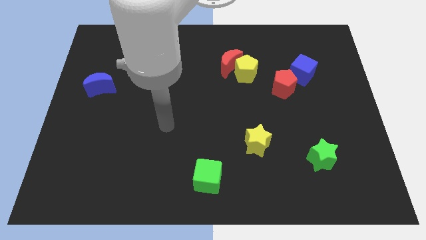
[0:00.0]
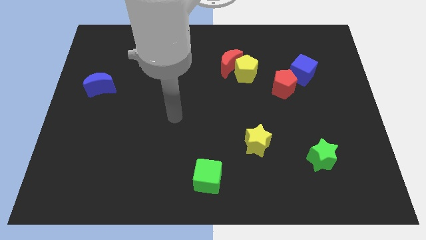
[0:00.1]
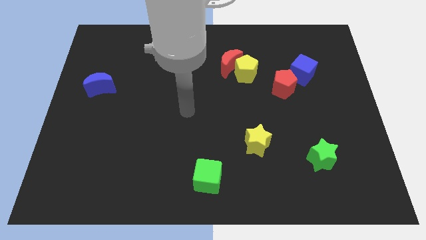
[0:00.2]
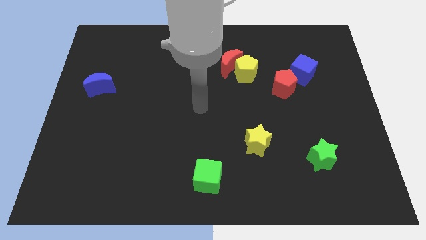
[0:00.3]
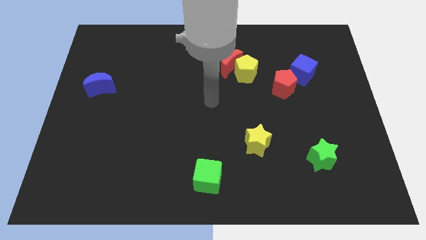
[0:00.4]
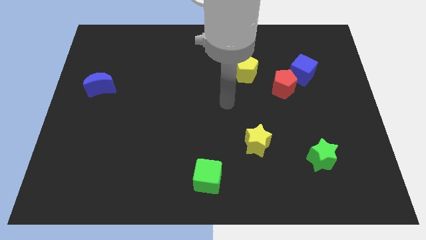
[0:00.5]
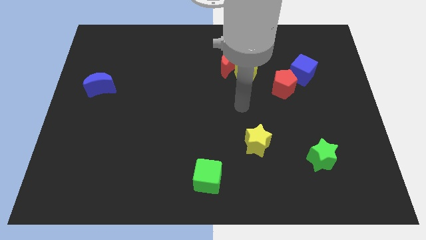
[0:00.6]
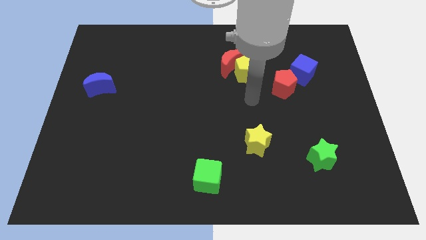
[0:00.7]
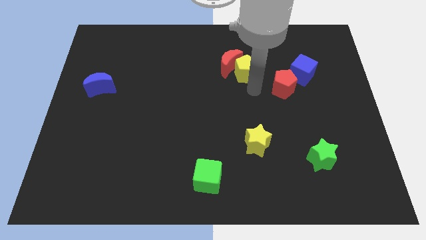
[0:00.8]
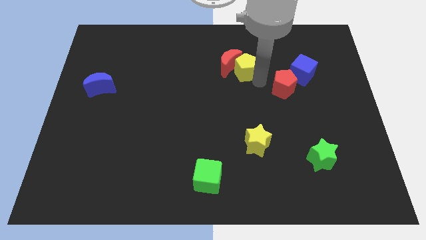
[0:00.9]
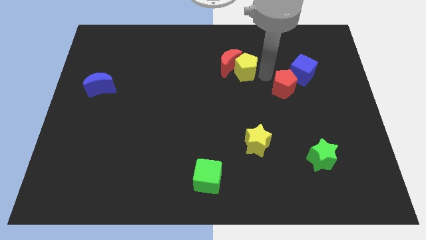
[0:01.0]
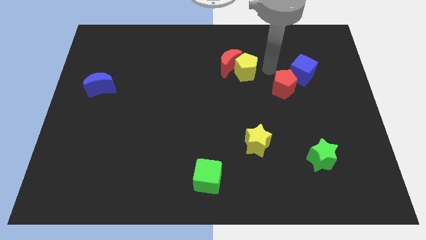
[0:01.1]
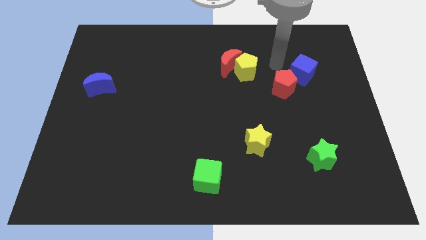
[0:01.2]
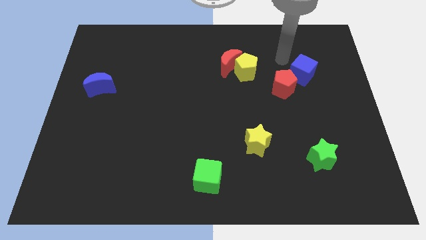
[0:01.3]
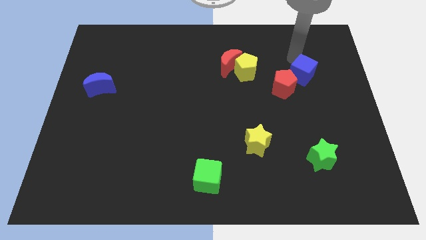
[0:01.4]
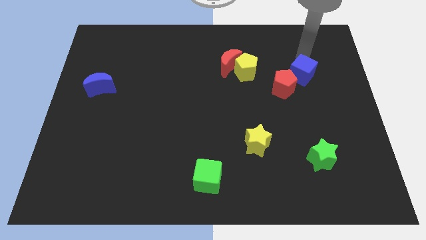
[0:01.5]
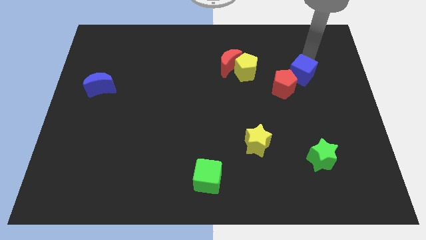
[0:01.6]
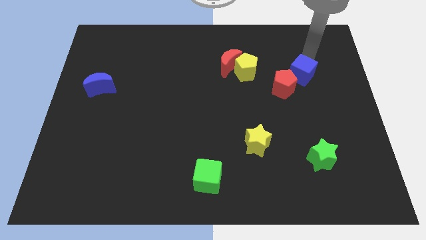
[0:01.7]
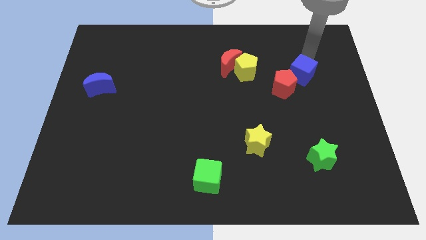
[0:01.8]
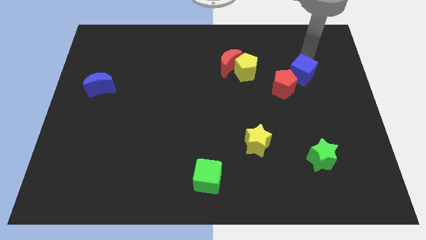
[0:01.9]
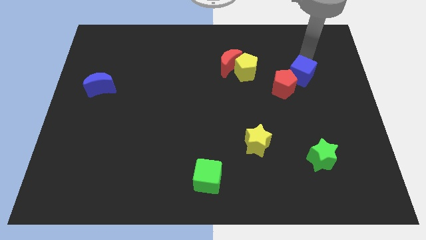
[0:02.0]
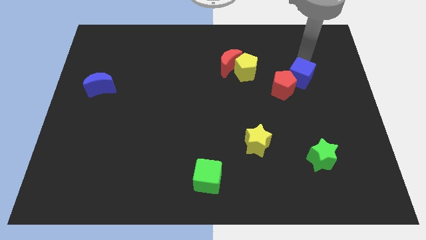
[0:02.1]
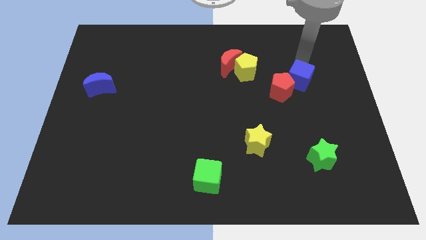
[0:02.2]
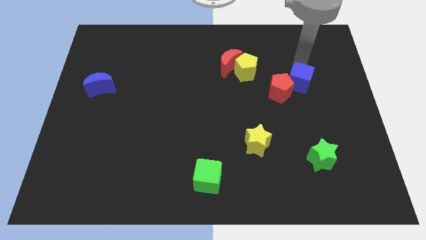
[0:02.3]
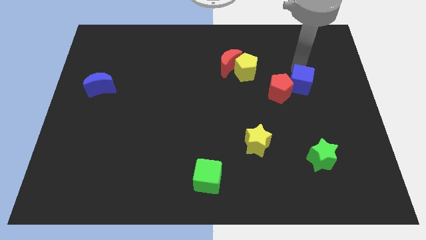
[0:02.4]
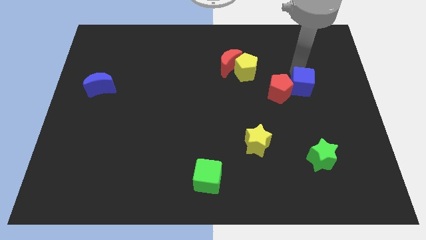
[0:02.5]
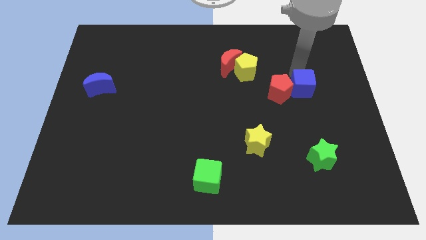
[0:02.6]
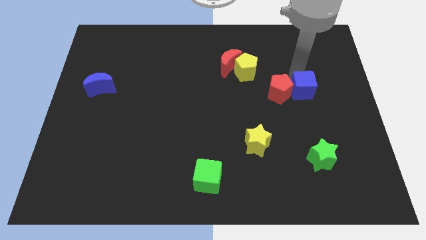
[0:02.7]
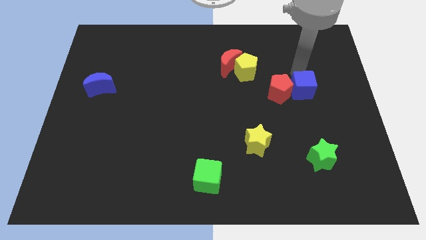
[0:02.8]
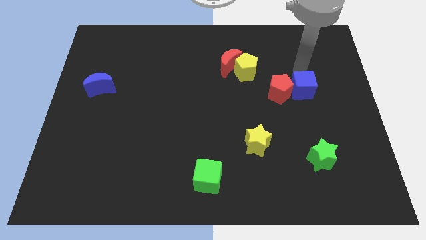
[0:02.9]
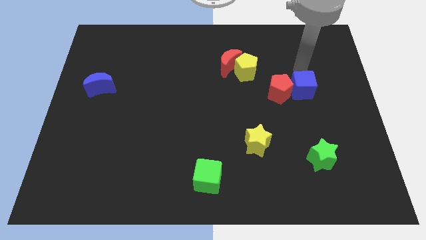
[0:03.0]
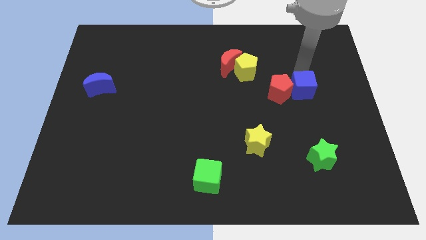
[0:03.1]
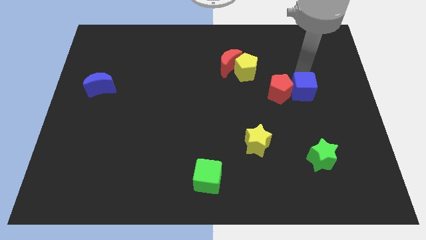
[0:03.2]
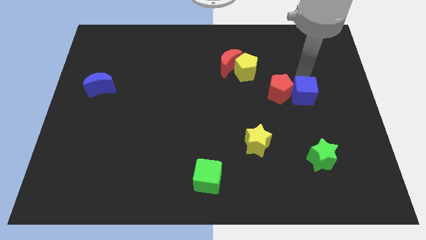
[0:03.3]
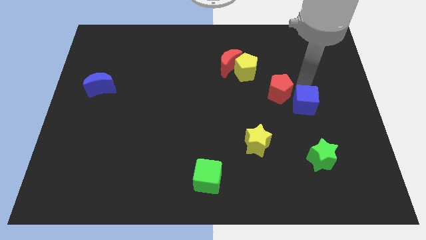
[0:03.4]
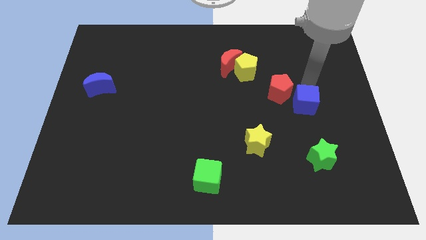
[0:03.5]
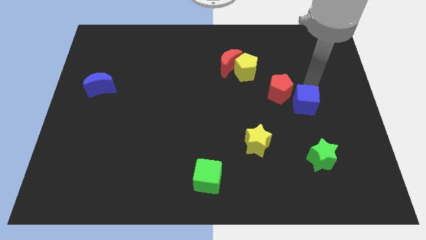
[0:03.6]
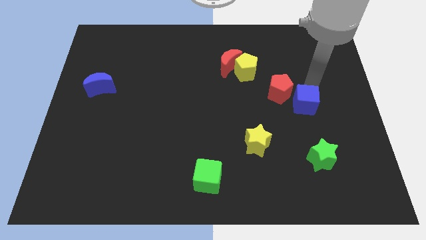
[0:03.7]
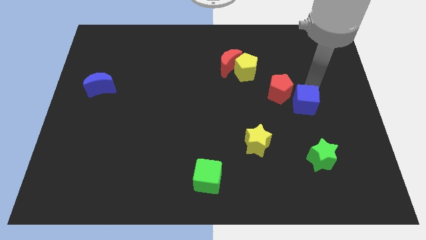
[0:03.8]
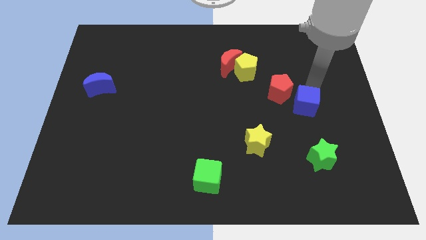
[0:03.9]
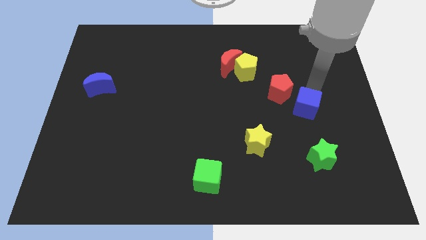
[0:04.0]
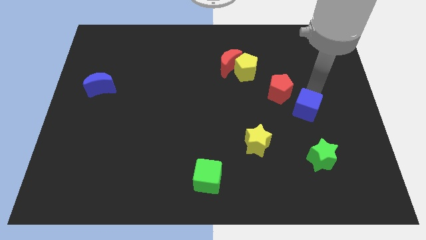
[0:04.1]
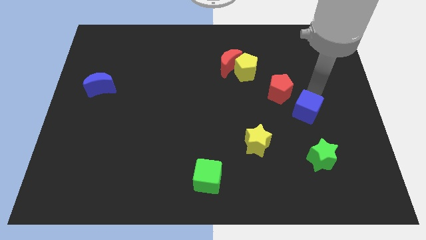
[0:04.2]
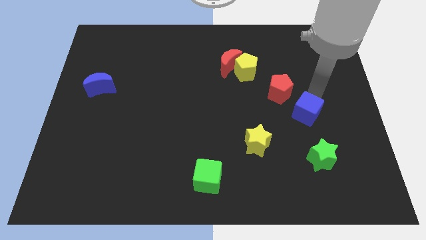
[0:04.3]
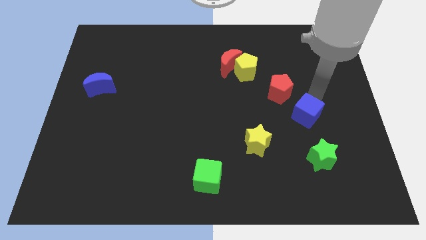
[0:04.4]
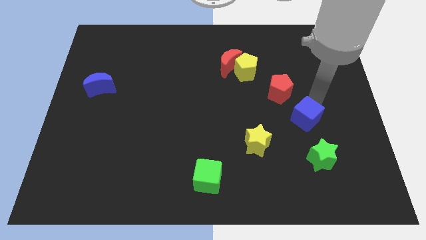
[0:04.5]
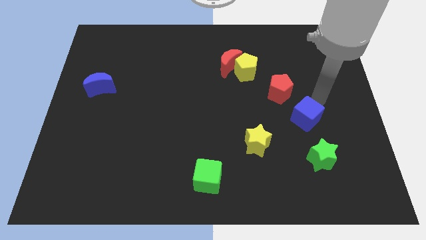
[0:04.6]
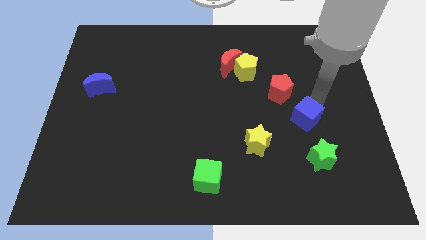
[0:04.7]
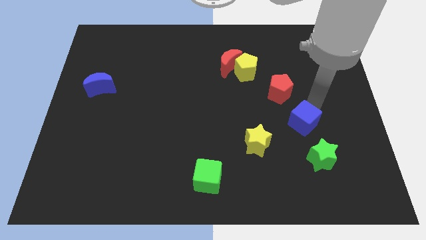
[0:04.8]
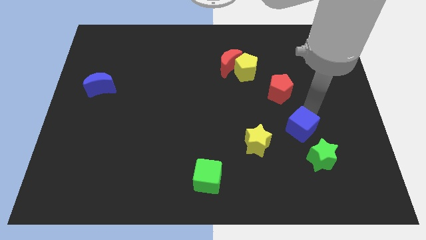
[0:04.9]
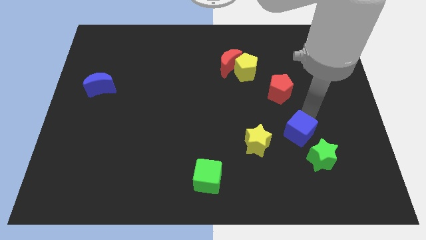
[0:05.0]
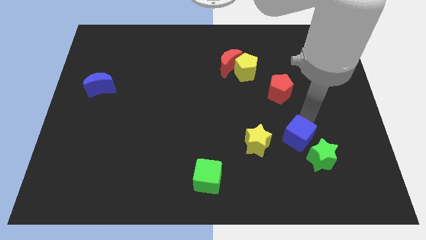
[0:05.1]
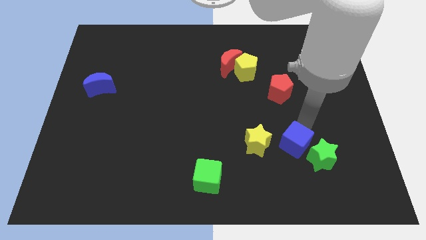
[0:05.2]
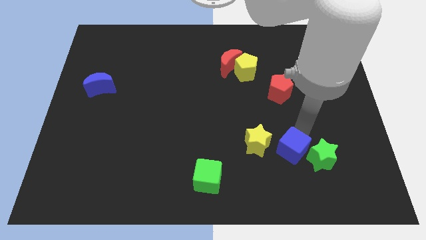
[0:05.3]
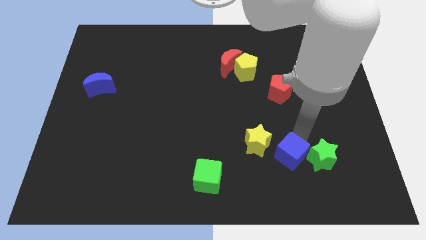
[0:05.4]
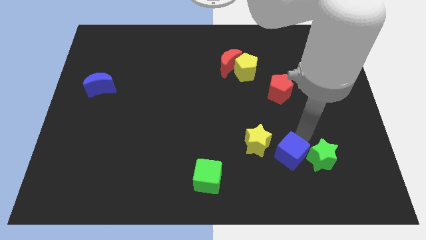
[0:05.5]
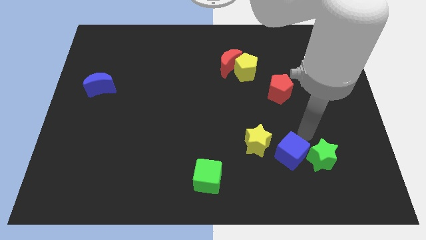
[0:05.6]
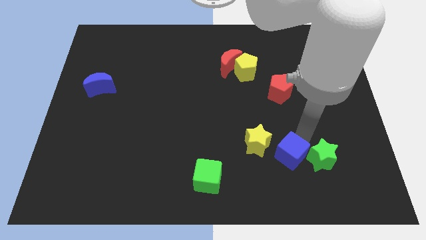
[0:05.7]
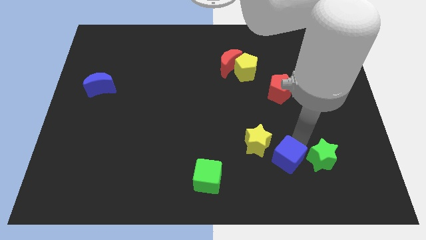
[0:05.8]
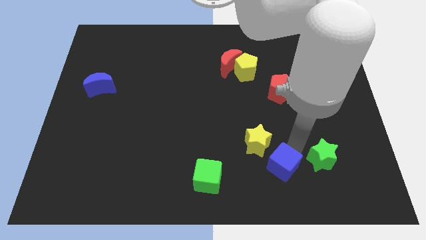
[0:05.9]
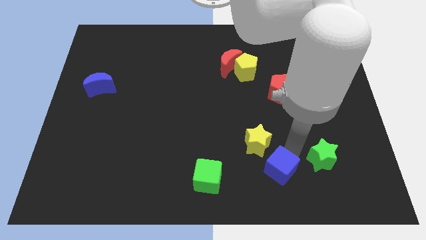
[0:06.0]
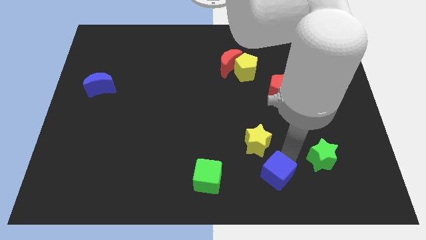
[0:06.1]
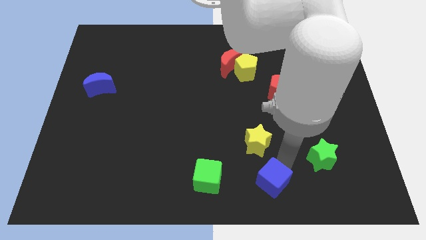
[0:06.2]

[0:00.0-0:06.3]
slide the blue cube to the bottom side

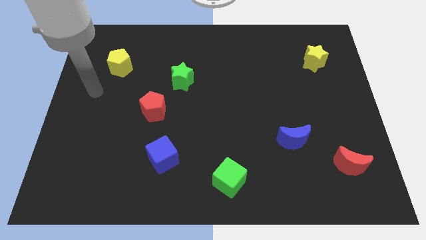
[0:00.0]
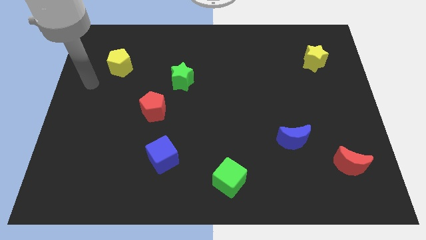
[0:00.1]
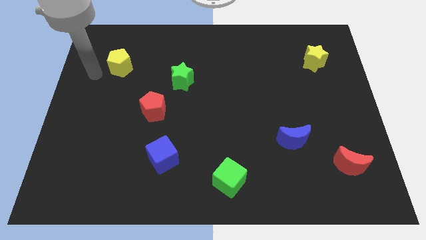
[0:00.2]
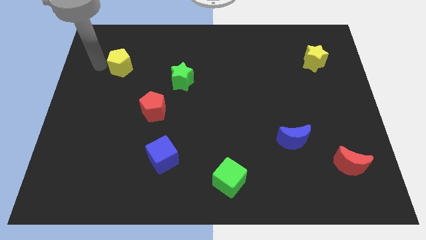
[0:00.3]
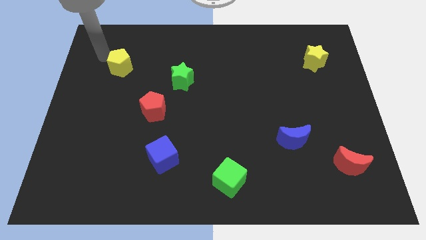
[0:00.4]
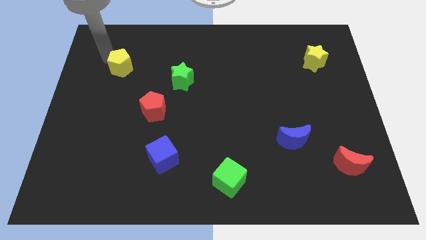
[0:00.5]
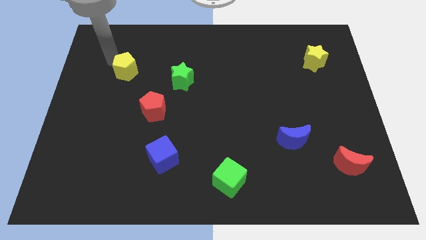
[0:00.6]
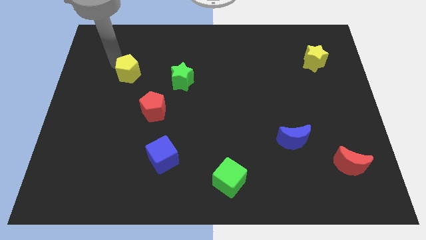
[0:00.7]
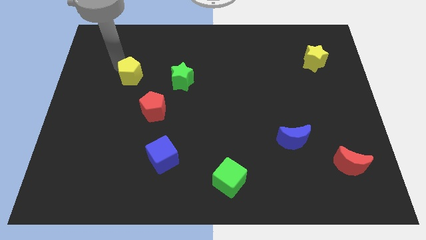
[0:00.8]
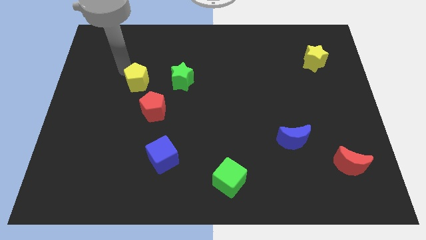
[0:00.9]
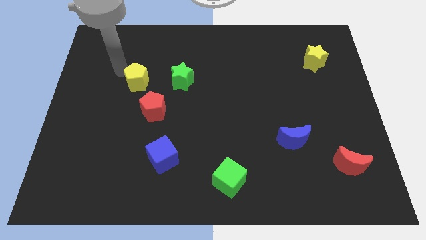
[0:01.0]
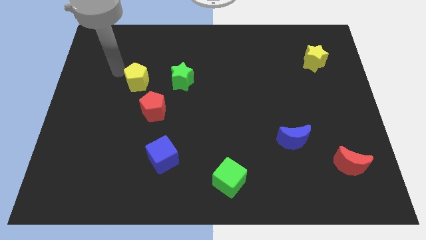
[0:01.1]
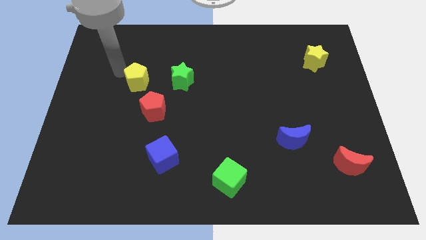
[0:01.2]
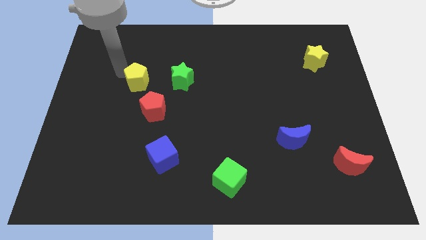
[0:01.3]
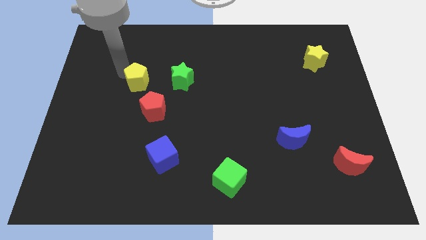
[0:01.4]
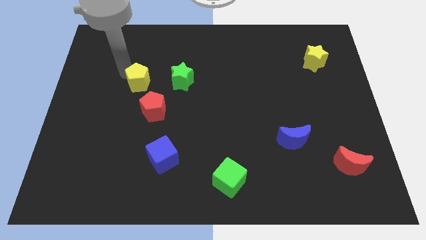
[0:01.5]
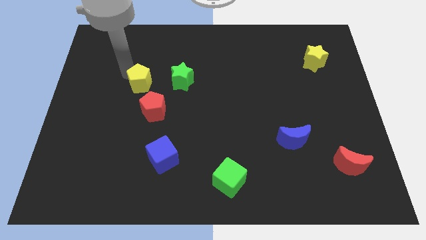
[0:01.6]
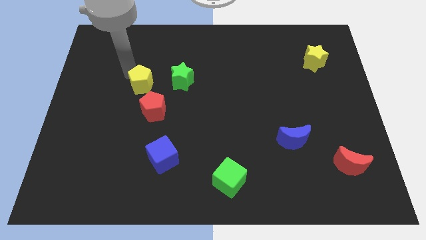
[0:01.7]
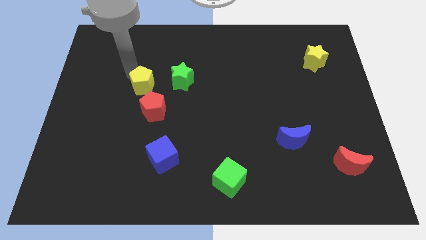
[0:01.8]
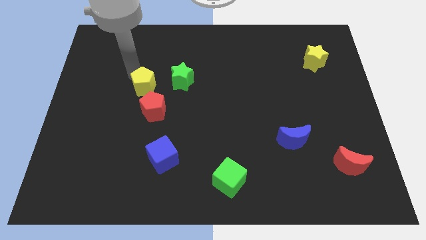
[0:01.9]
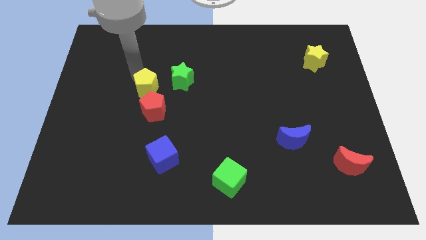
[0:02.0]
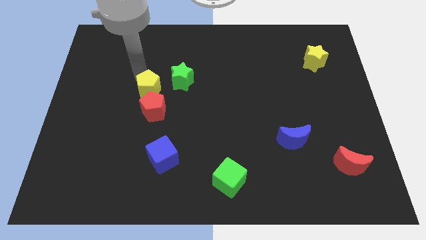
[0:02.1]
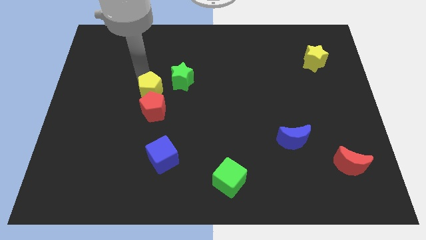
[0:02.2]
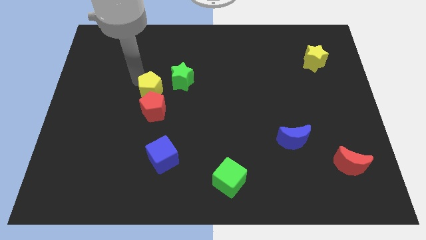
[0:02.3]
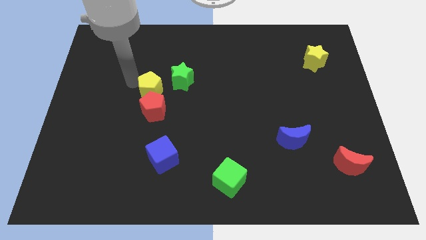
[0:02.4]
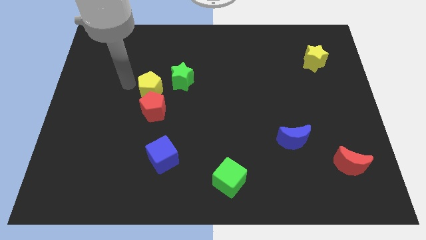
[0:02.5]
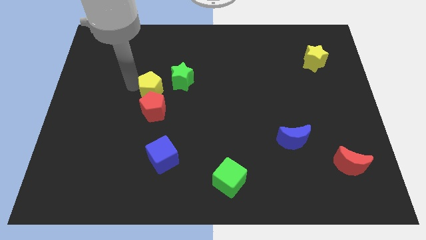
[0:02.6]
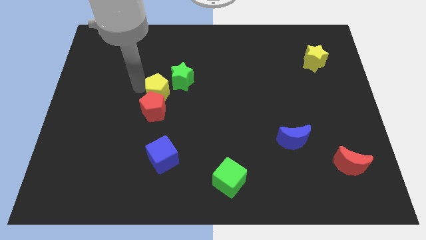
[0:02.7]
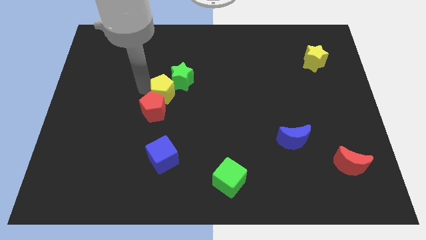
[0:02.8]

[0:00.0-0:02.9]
push the yellow pentagon to the middle of the board
